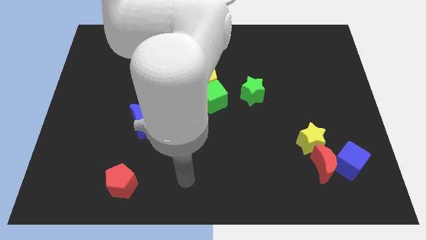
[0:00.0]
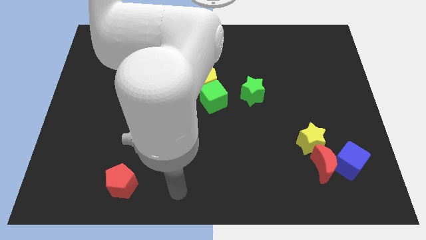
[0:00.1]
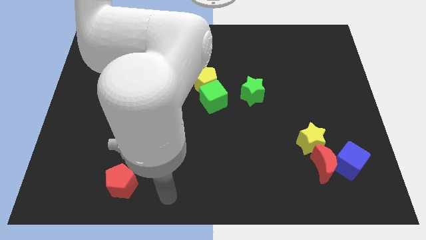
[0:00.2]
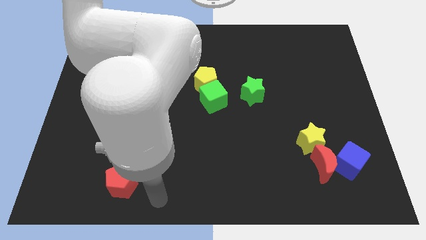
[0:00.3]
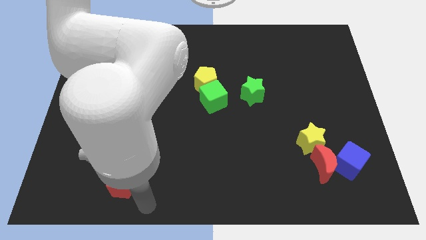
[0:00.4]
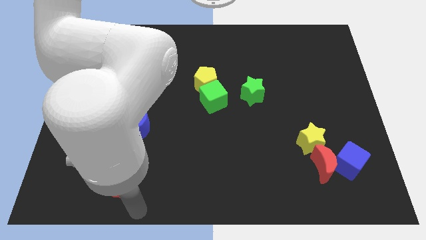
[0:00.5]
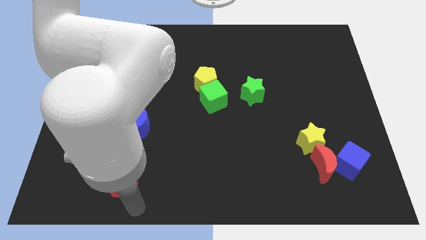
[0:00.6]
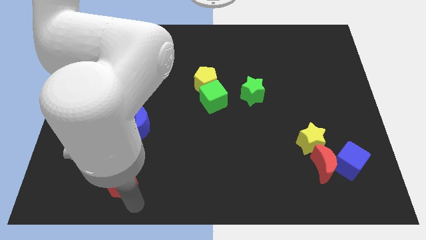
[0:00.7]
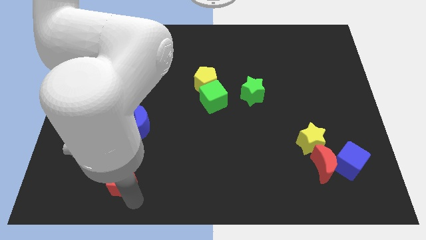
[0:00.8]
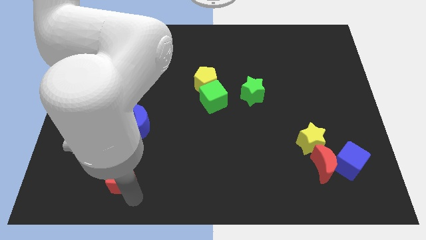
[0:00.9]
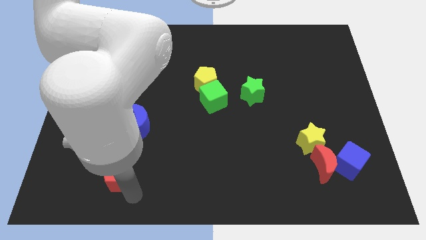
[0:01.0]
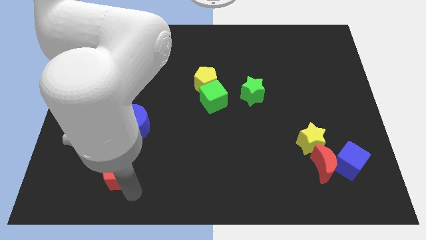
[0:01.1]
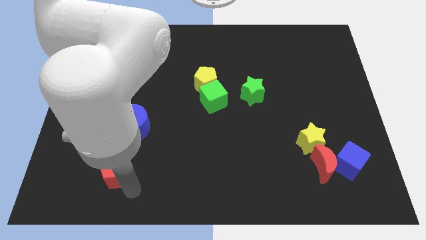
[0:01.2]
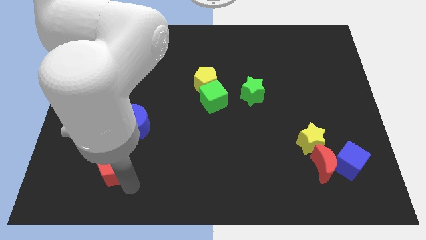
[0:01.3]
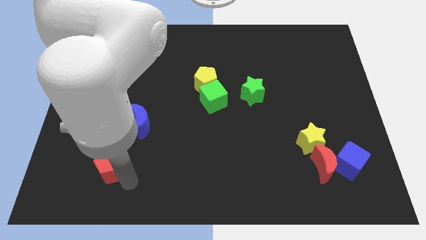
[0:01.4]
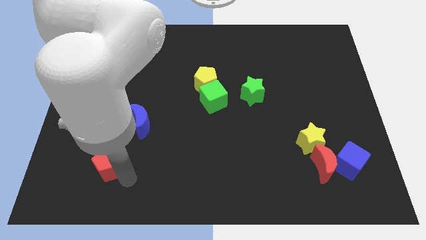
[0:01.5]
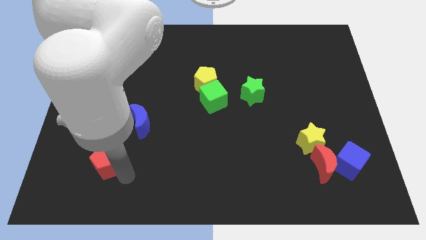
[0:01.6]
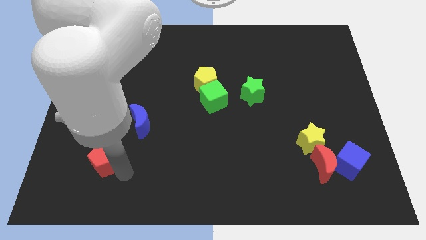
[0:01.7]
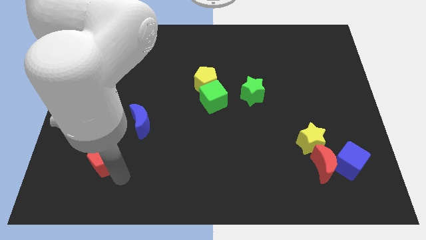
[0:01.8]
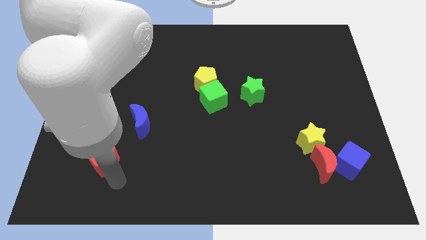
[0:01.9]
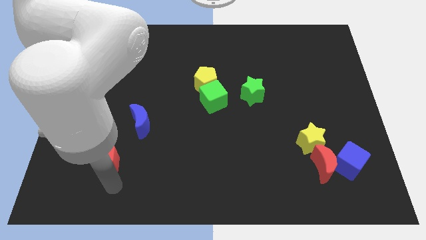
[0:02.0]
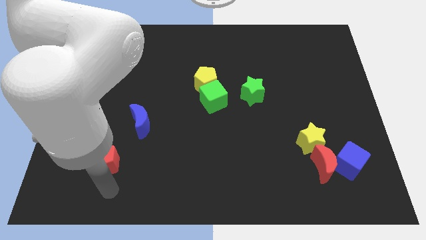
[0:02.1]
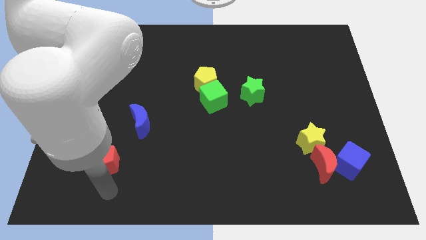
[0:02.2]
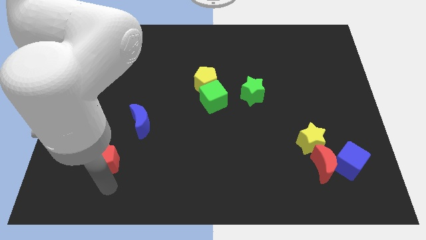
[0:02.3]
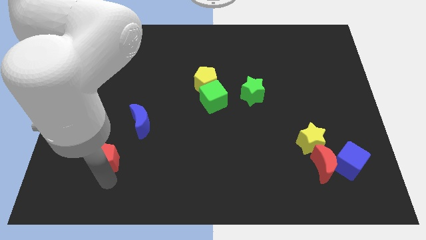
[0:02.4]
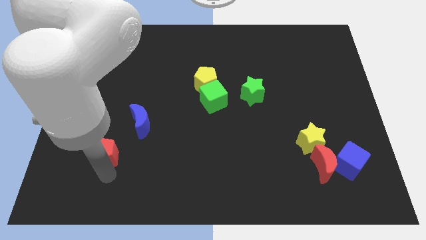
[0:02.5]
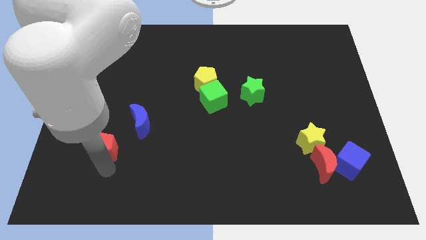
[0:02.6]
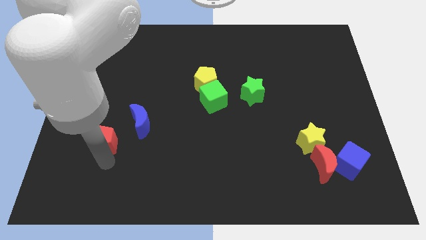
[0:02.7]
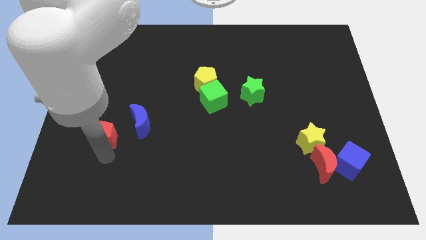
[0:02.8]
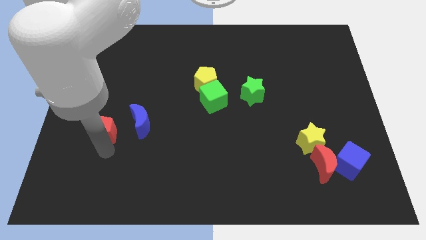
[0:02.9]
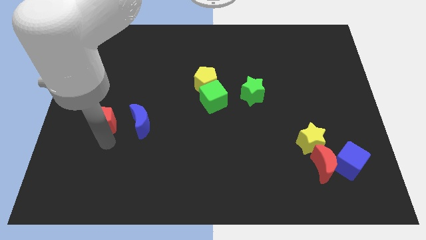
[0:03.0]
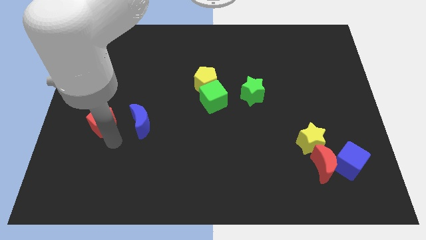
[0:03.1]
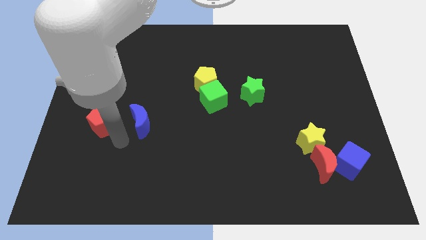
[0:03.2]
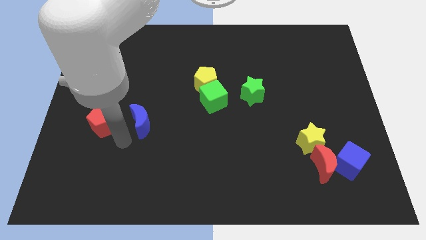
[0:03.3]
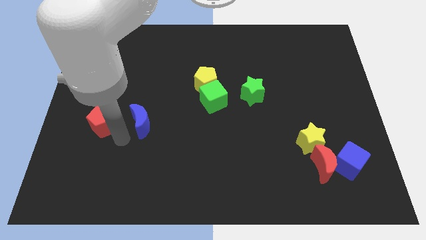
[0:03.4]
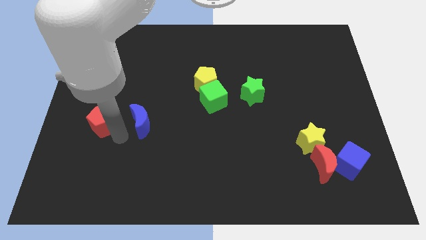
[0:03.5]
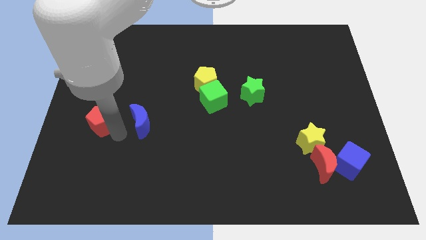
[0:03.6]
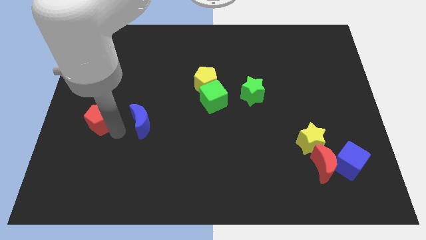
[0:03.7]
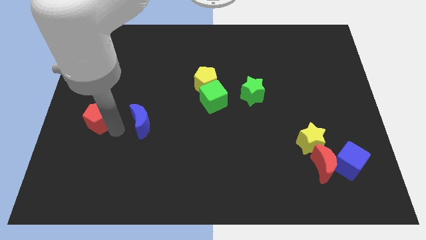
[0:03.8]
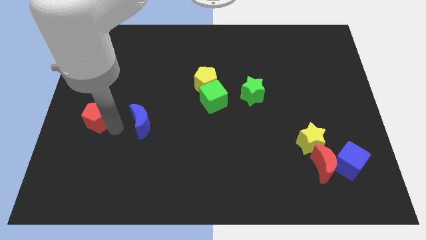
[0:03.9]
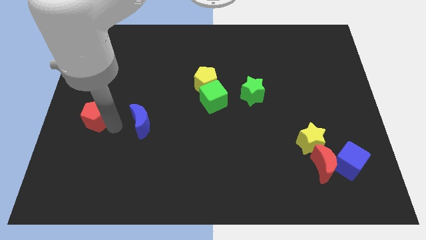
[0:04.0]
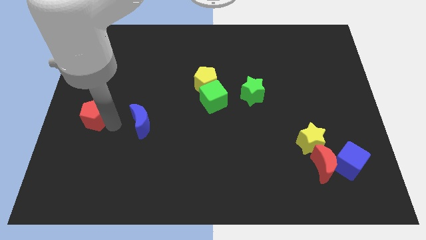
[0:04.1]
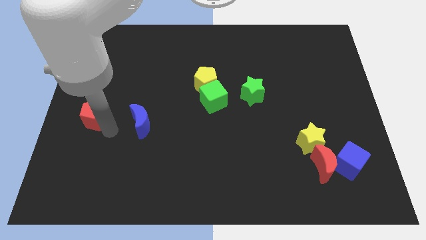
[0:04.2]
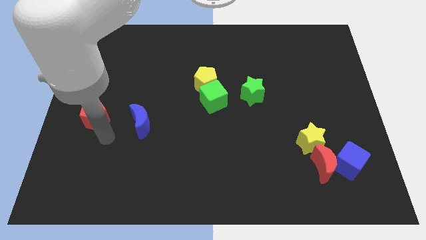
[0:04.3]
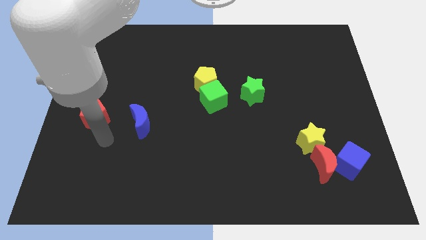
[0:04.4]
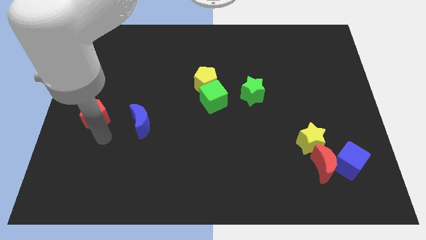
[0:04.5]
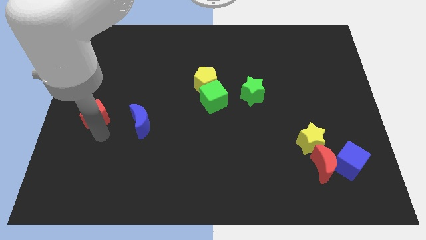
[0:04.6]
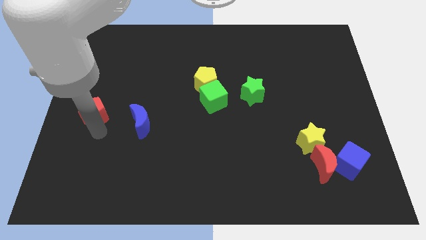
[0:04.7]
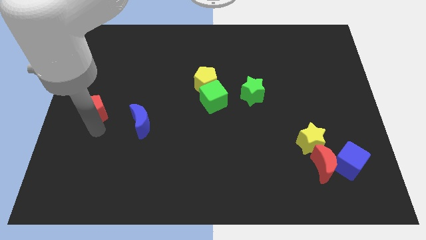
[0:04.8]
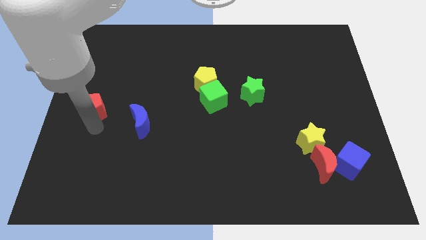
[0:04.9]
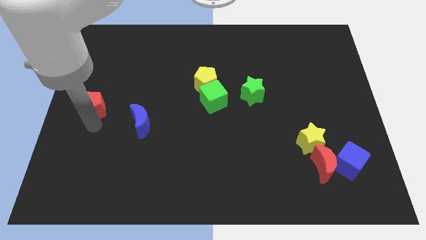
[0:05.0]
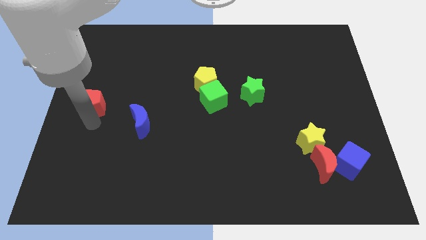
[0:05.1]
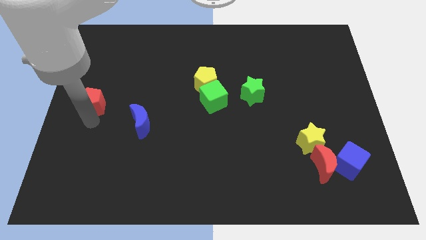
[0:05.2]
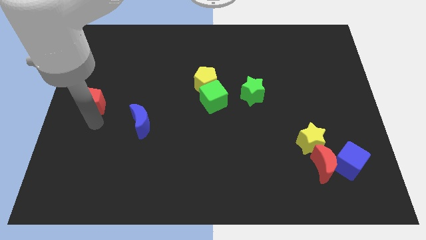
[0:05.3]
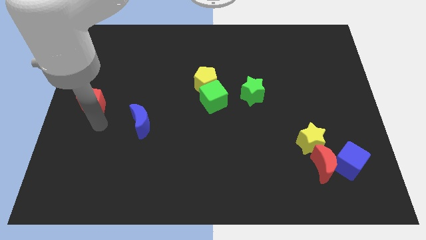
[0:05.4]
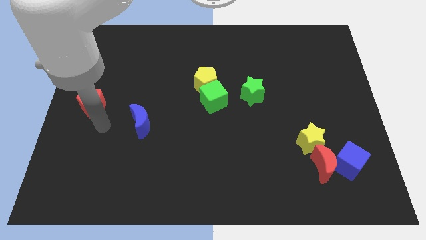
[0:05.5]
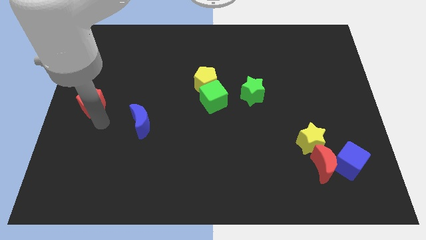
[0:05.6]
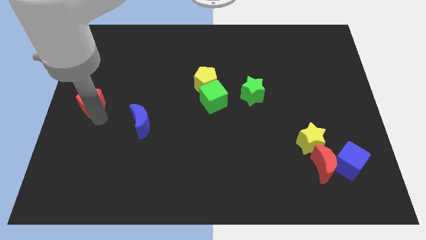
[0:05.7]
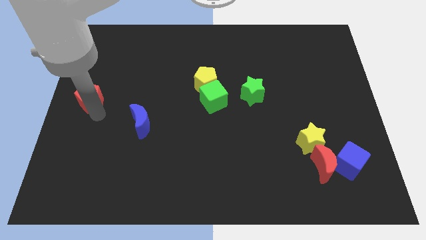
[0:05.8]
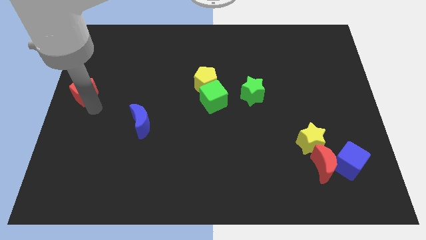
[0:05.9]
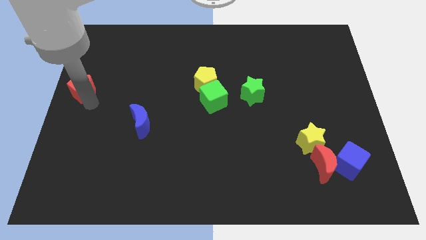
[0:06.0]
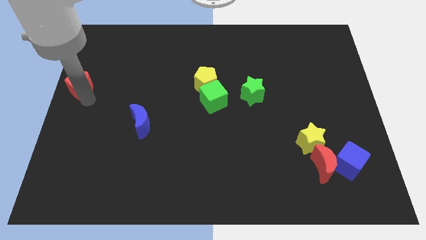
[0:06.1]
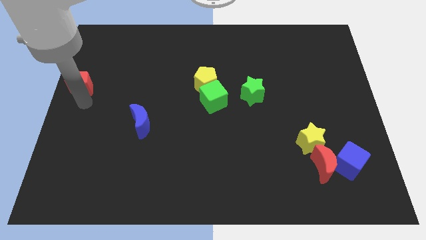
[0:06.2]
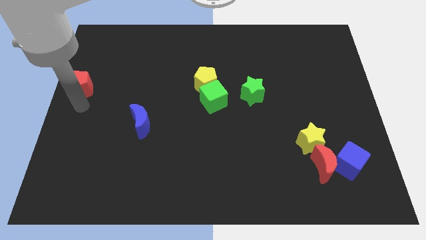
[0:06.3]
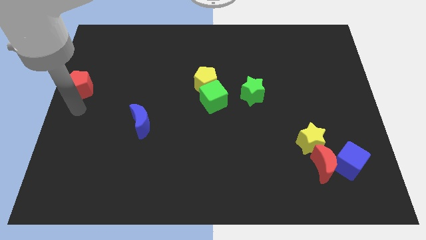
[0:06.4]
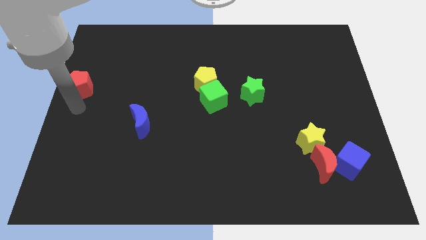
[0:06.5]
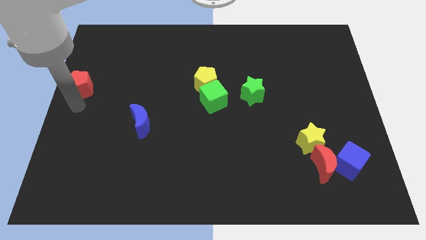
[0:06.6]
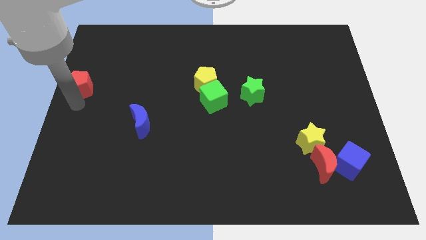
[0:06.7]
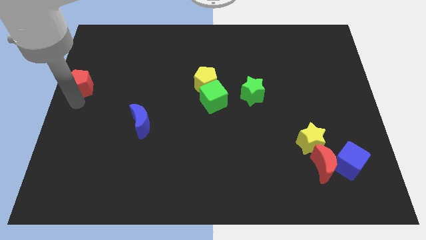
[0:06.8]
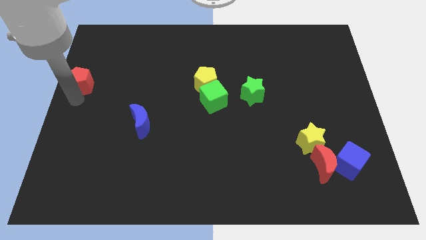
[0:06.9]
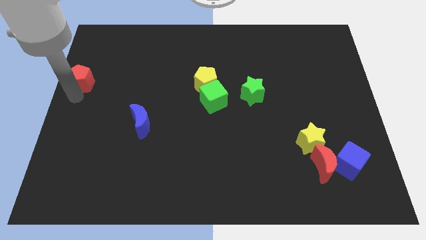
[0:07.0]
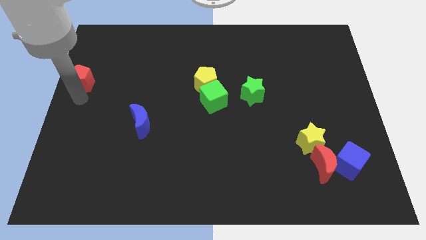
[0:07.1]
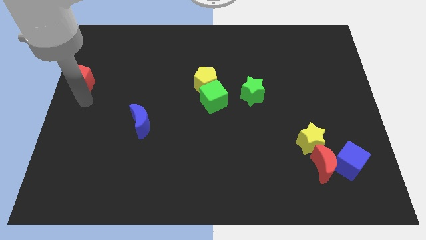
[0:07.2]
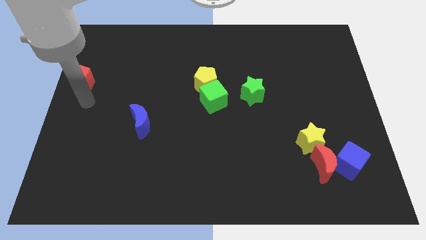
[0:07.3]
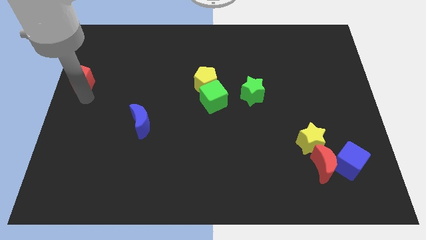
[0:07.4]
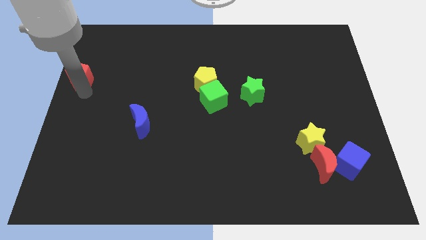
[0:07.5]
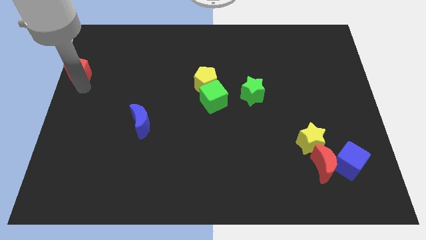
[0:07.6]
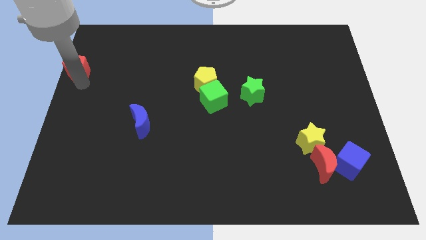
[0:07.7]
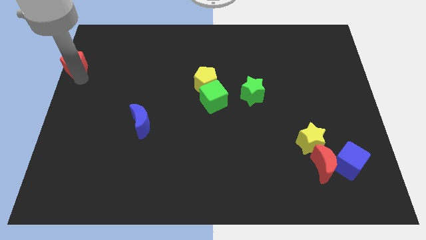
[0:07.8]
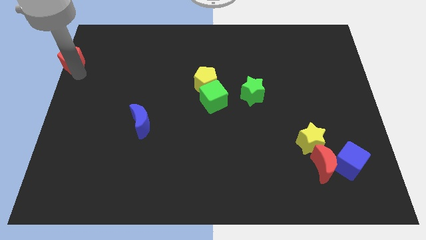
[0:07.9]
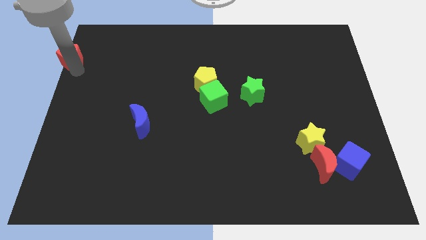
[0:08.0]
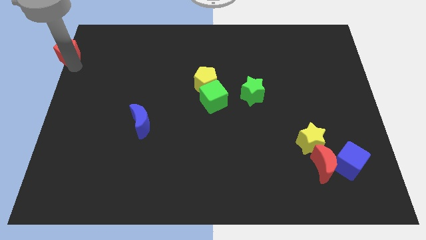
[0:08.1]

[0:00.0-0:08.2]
move the red pentagon to the top left
